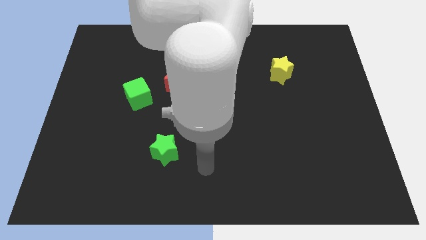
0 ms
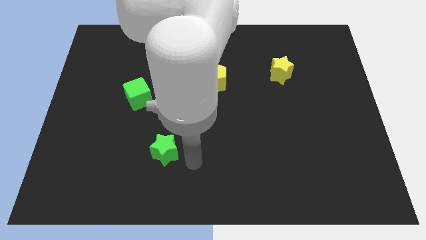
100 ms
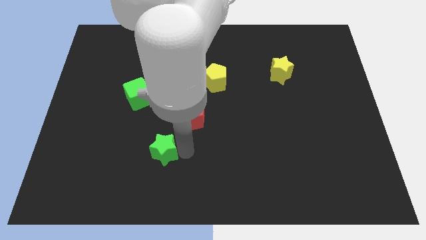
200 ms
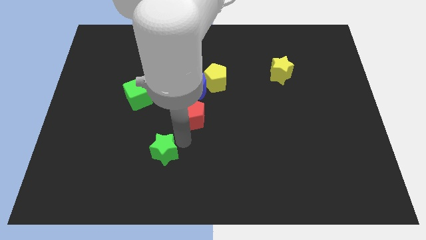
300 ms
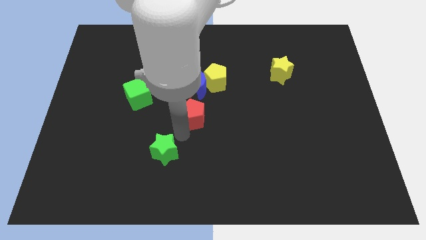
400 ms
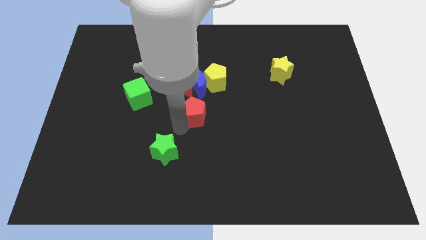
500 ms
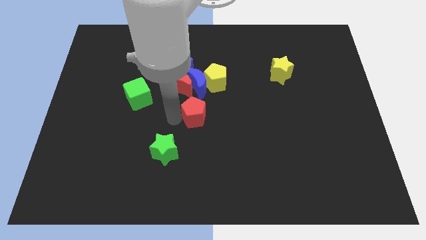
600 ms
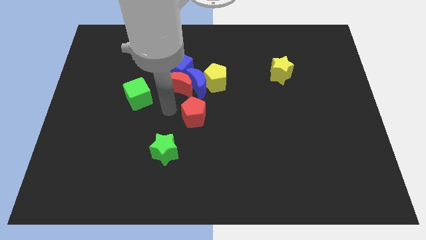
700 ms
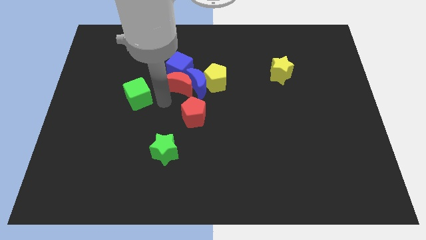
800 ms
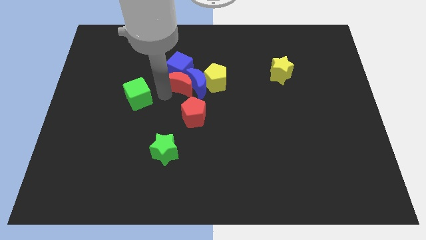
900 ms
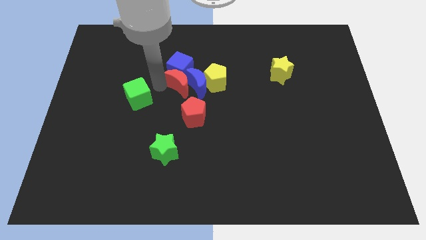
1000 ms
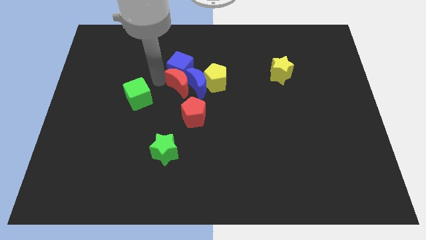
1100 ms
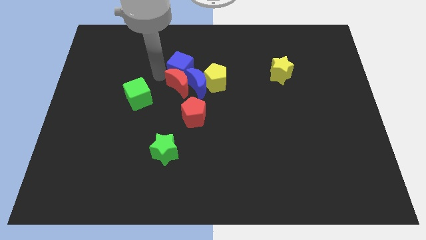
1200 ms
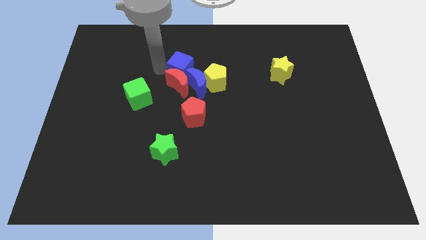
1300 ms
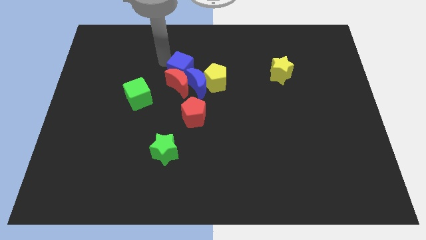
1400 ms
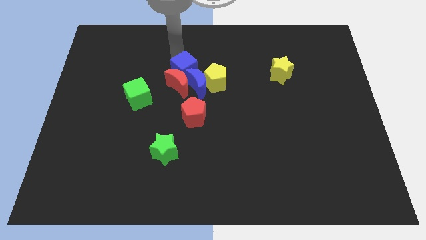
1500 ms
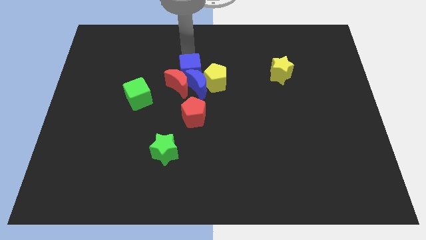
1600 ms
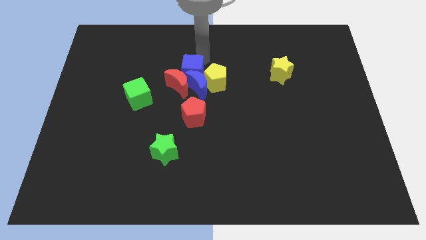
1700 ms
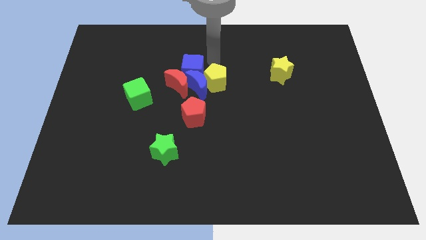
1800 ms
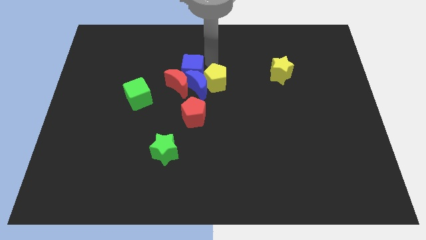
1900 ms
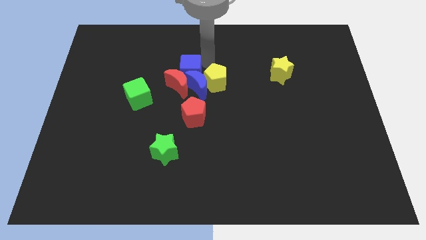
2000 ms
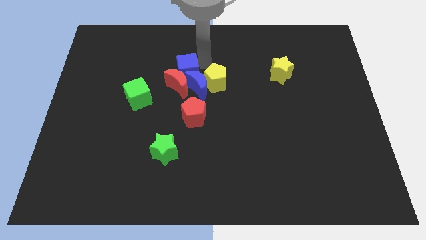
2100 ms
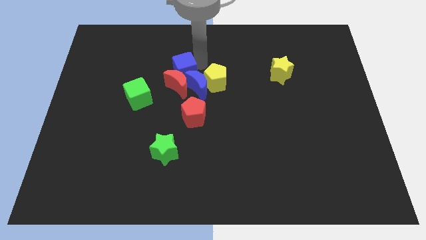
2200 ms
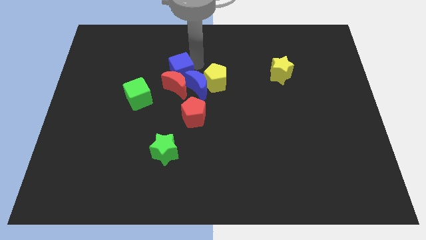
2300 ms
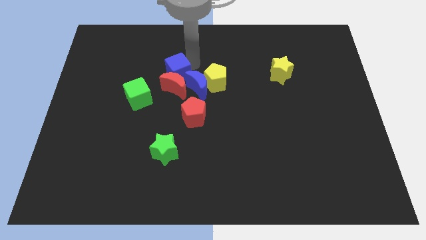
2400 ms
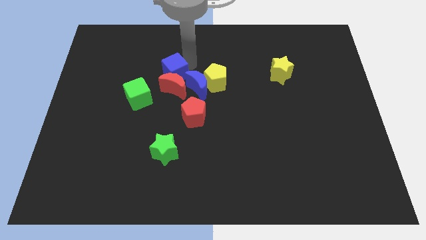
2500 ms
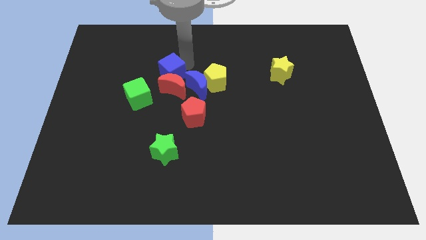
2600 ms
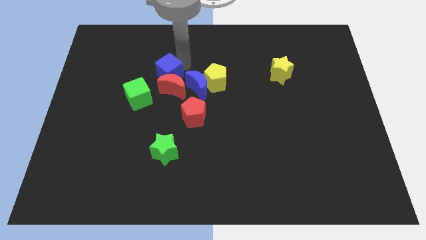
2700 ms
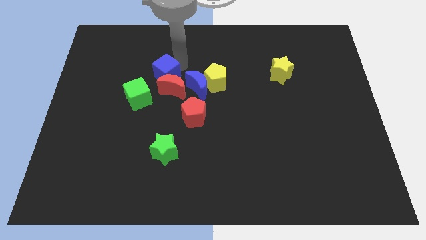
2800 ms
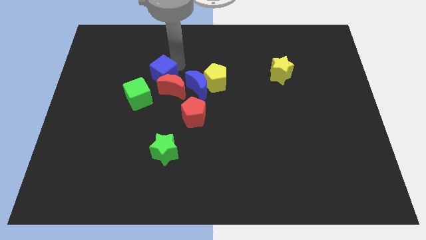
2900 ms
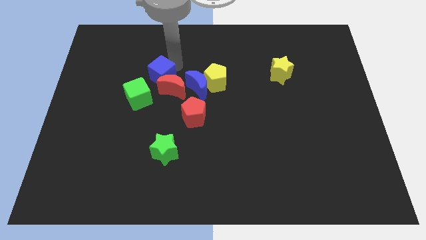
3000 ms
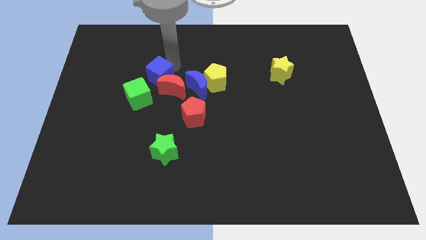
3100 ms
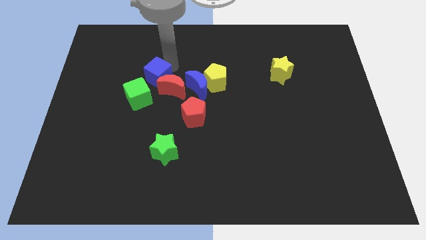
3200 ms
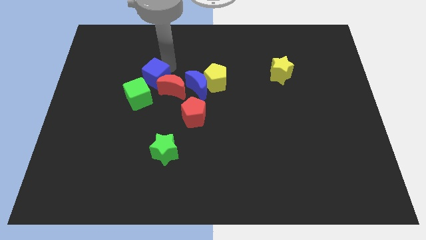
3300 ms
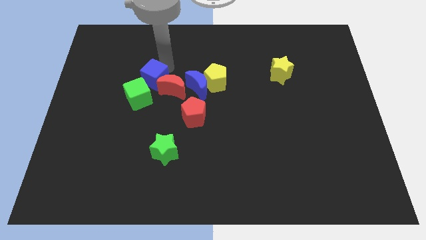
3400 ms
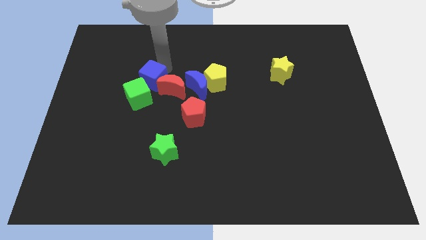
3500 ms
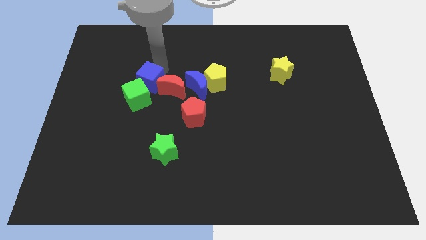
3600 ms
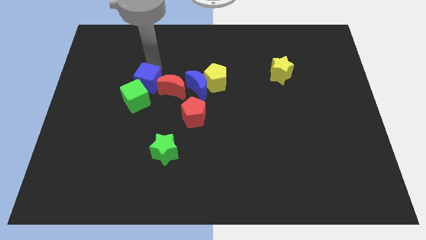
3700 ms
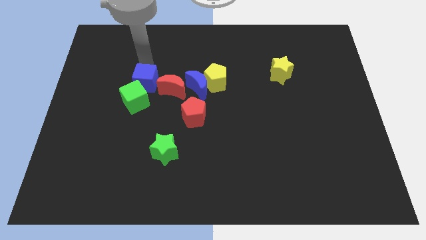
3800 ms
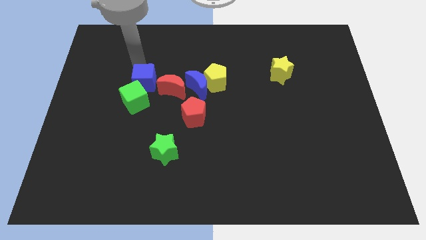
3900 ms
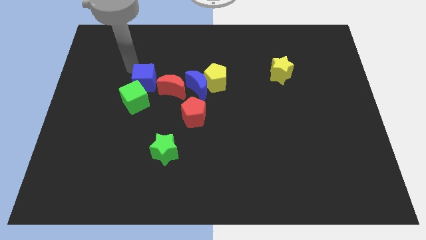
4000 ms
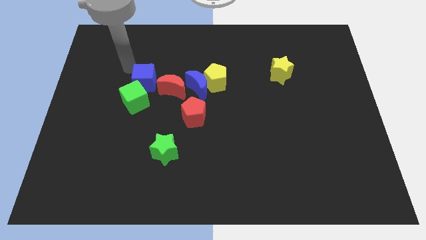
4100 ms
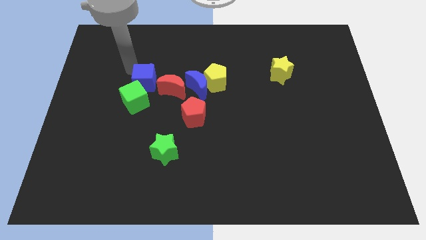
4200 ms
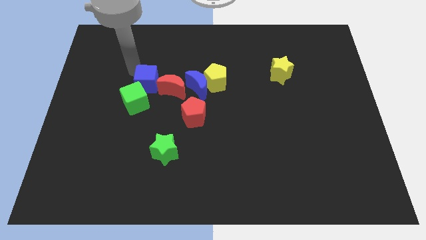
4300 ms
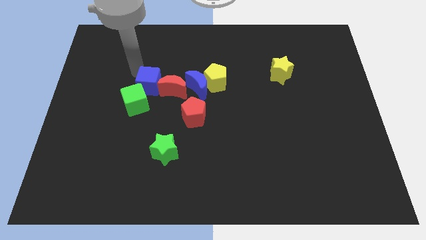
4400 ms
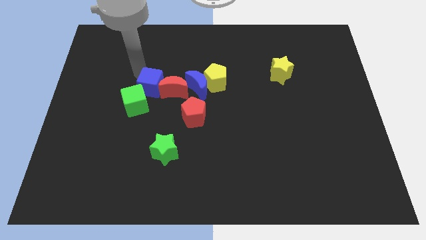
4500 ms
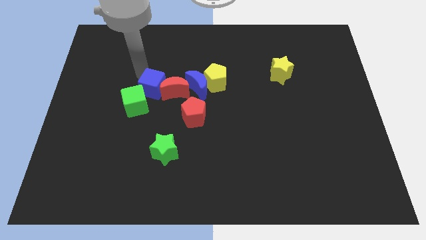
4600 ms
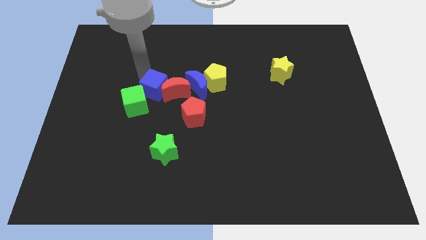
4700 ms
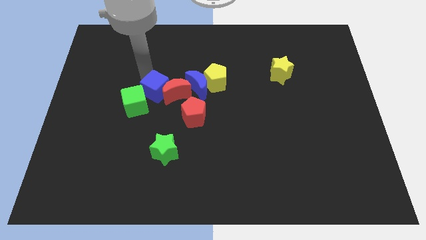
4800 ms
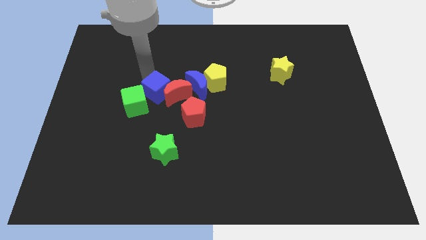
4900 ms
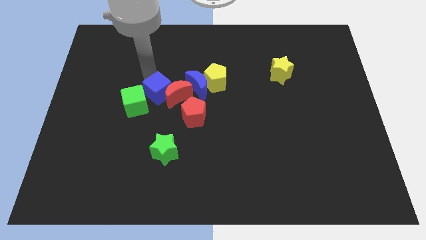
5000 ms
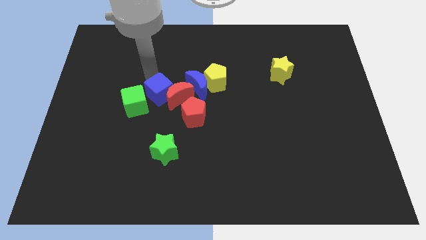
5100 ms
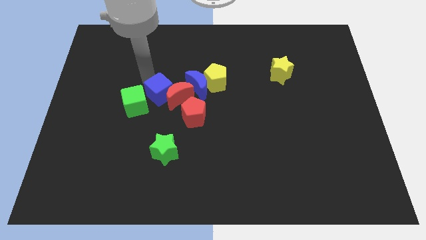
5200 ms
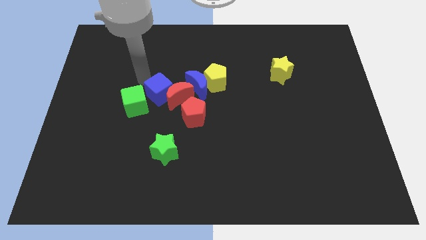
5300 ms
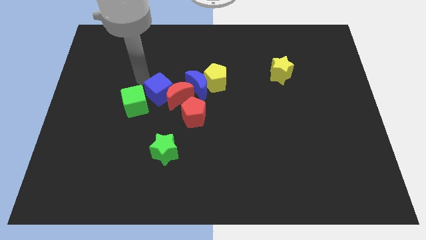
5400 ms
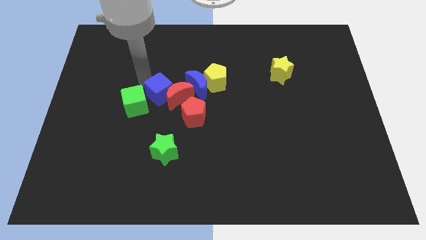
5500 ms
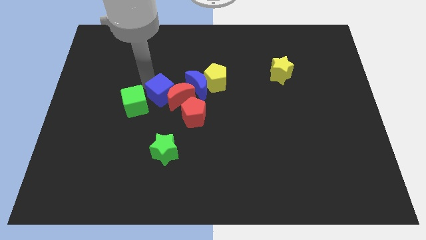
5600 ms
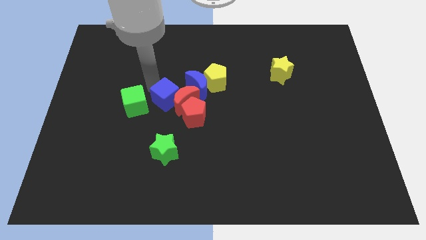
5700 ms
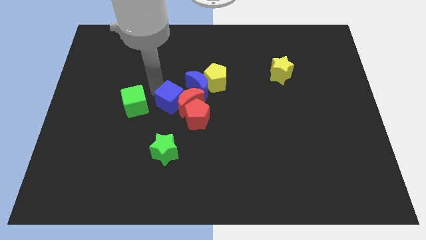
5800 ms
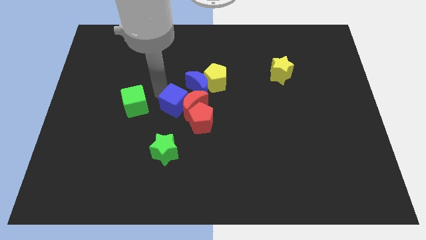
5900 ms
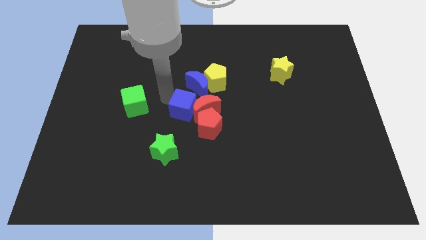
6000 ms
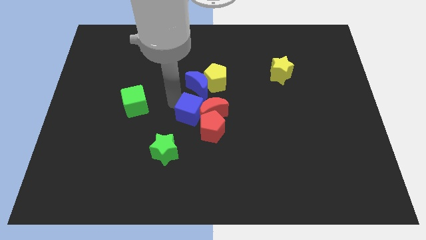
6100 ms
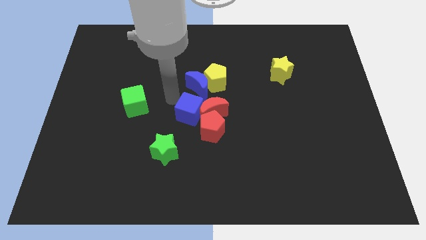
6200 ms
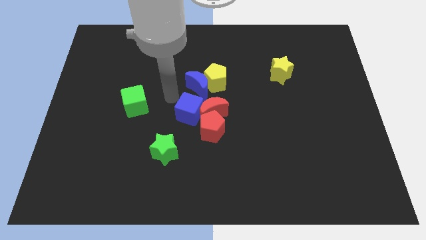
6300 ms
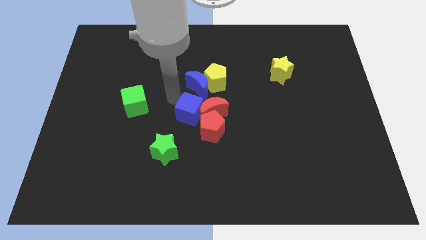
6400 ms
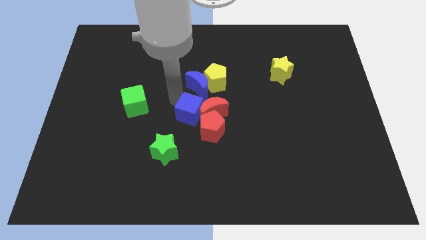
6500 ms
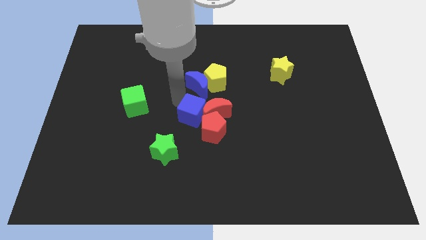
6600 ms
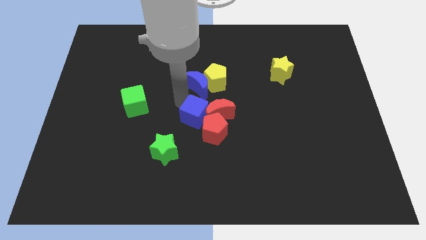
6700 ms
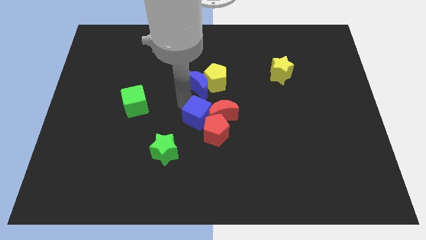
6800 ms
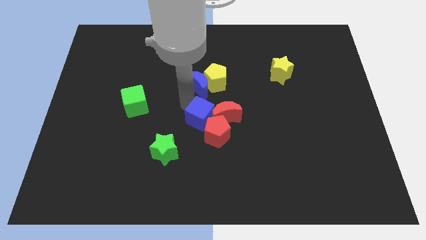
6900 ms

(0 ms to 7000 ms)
put the blue cube to the red pentagon

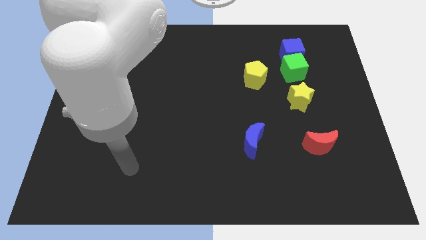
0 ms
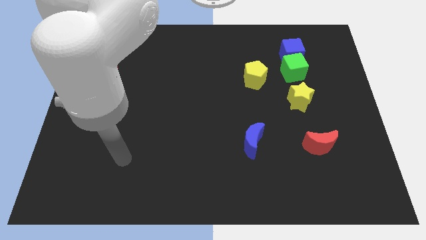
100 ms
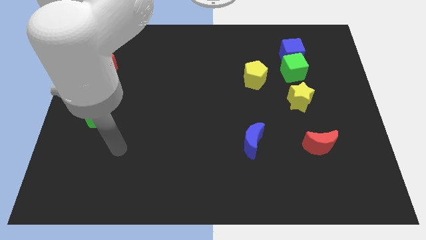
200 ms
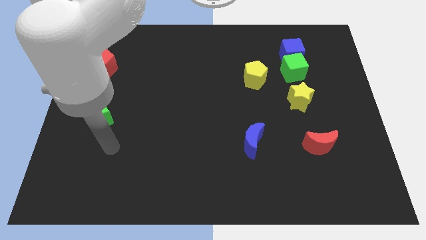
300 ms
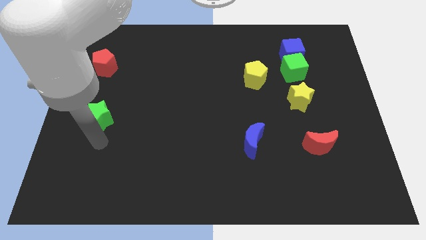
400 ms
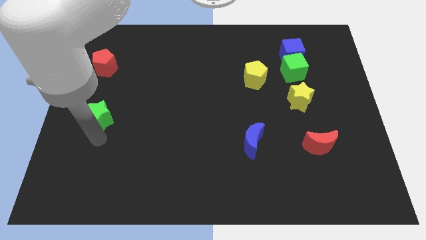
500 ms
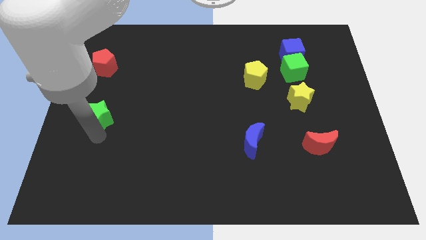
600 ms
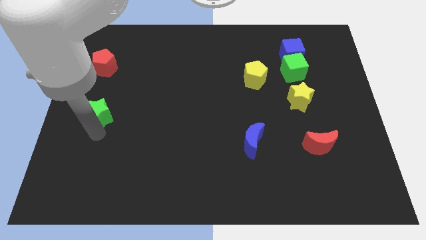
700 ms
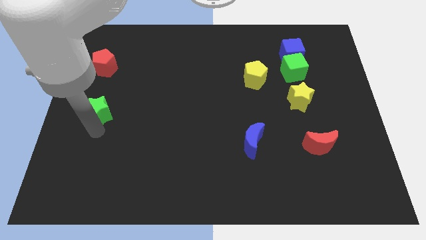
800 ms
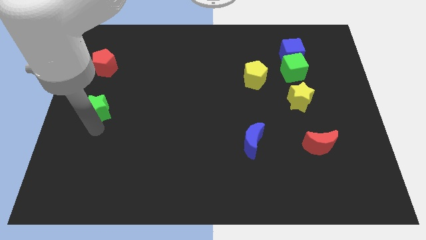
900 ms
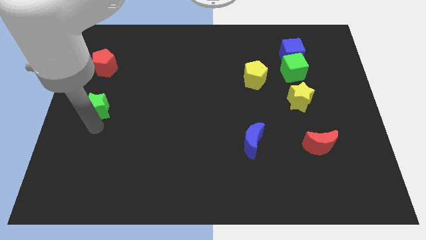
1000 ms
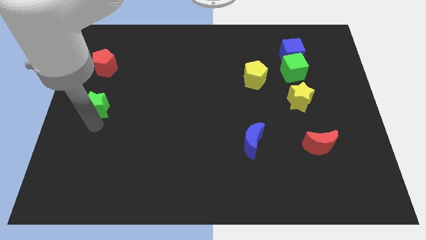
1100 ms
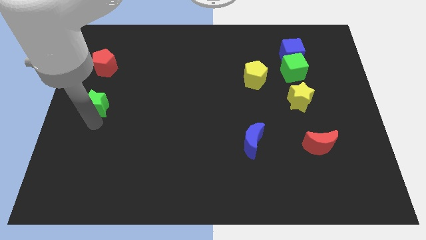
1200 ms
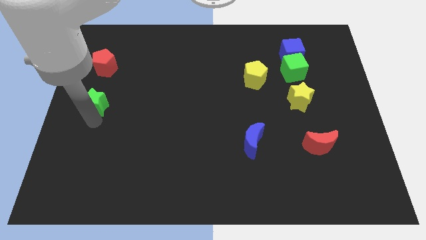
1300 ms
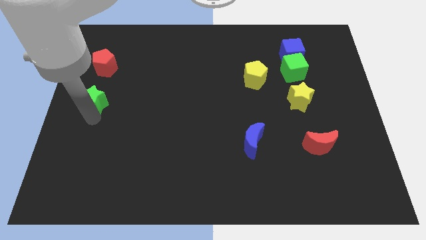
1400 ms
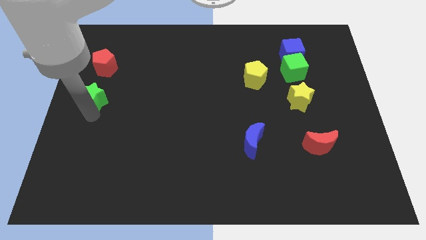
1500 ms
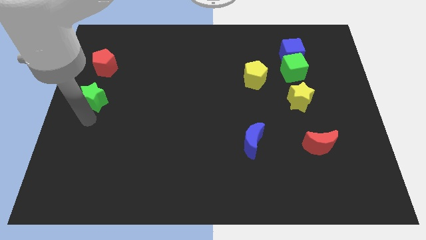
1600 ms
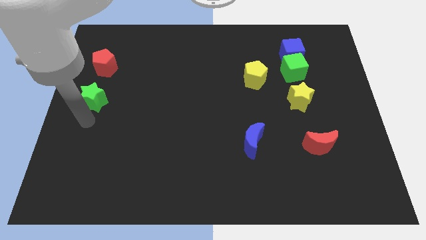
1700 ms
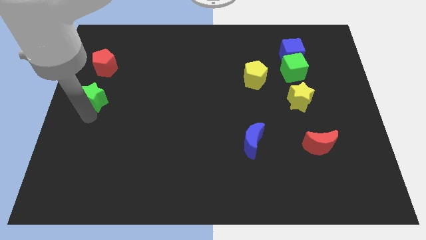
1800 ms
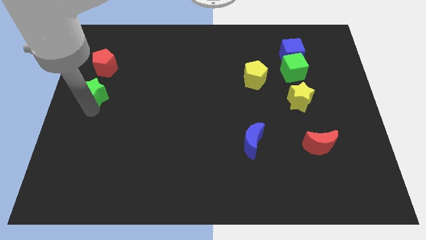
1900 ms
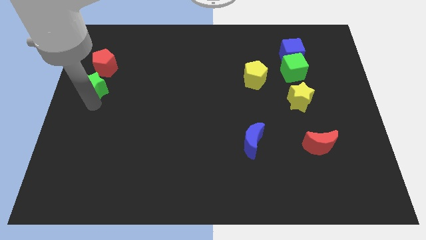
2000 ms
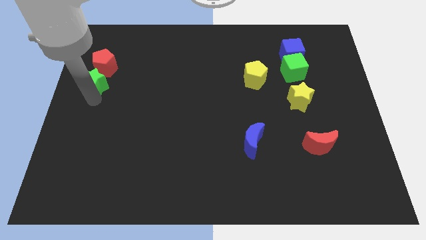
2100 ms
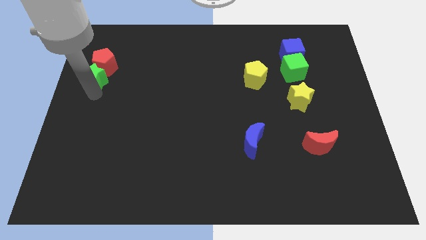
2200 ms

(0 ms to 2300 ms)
push the green star close to the red pentagon
